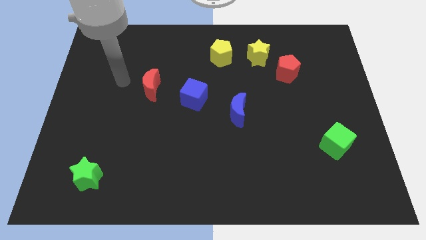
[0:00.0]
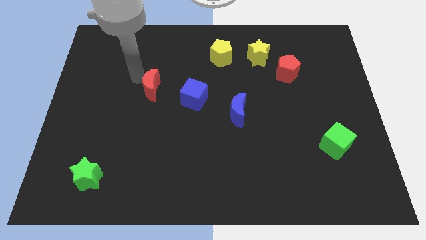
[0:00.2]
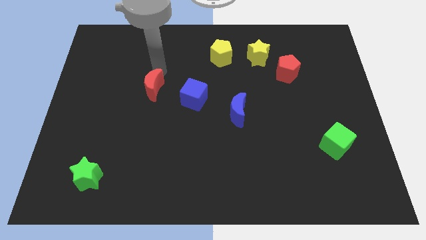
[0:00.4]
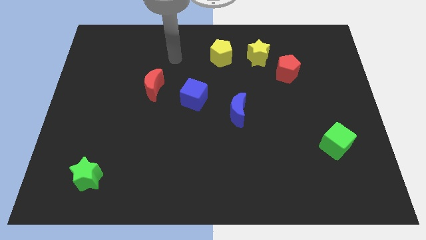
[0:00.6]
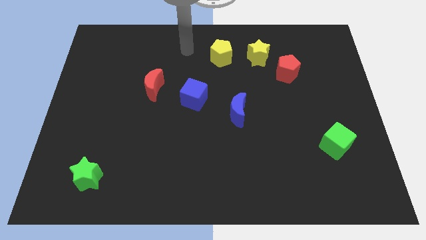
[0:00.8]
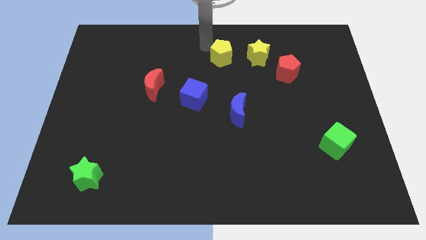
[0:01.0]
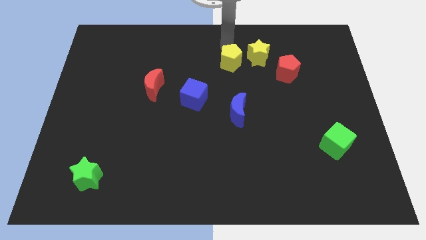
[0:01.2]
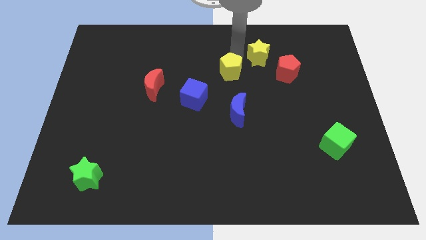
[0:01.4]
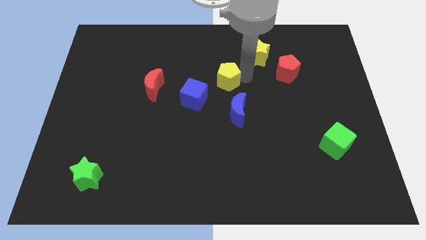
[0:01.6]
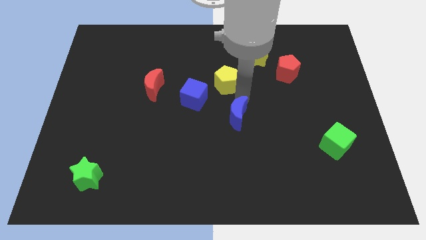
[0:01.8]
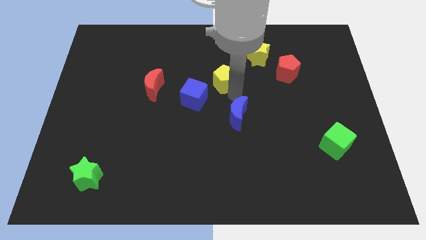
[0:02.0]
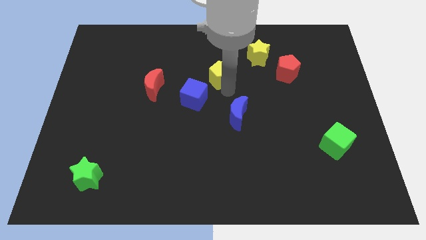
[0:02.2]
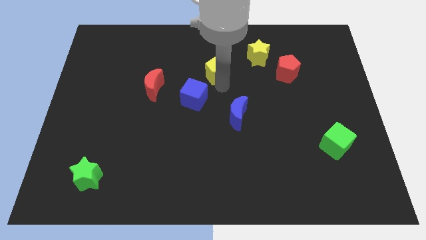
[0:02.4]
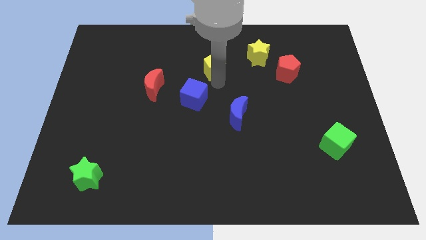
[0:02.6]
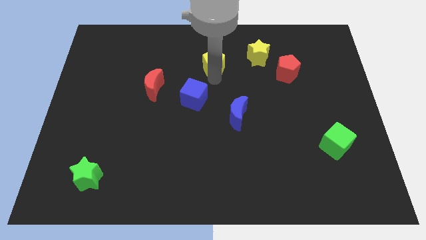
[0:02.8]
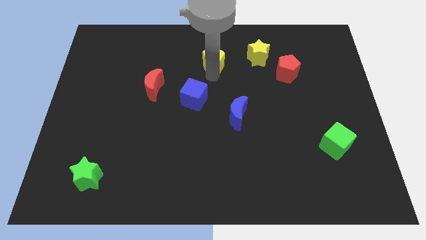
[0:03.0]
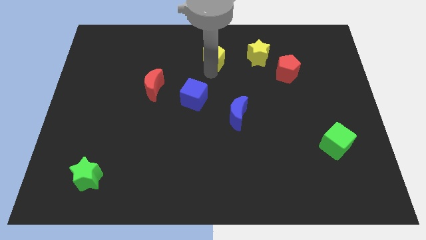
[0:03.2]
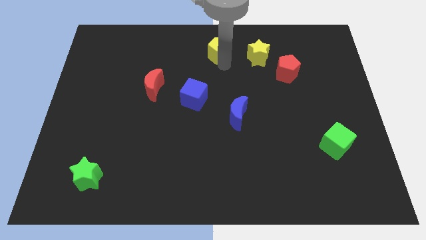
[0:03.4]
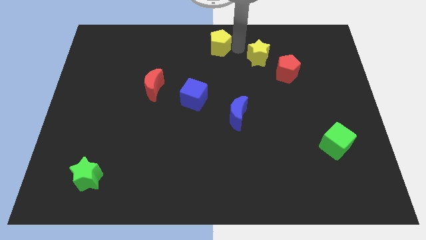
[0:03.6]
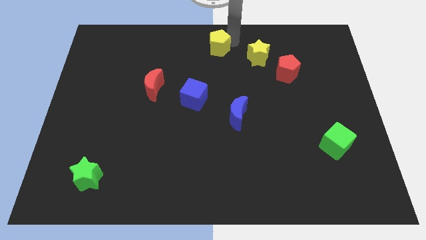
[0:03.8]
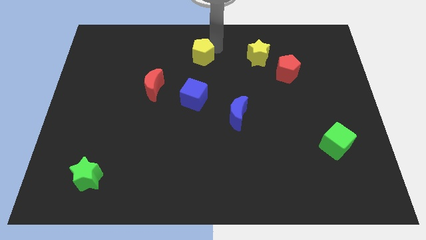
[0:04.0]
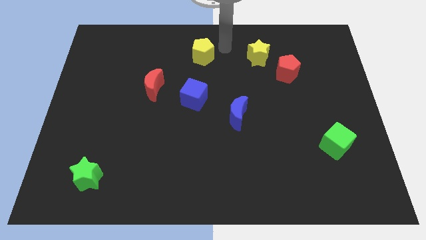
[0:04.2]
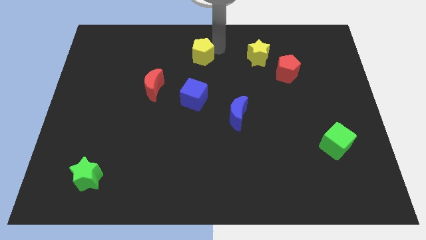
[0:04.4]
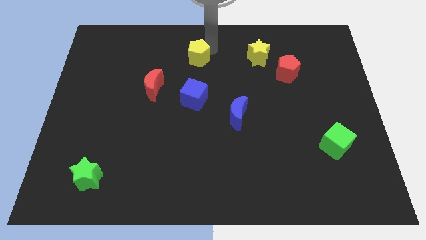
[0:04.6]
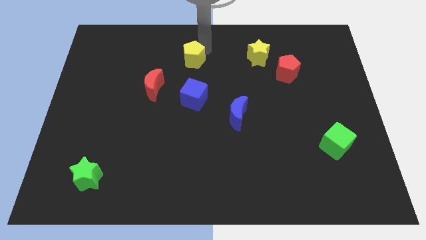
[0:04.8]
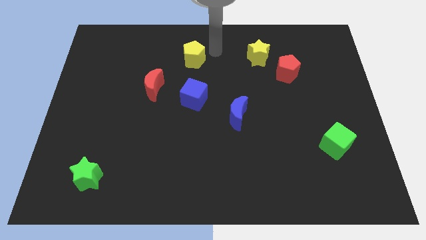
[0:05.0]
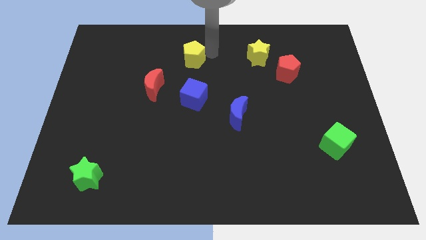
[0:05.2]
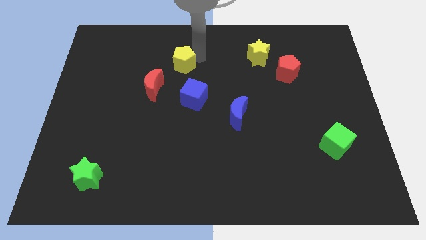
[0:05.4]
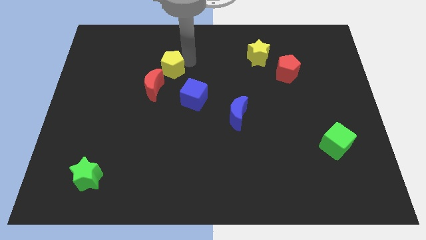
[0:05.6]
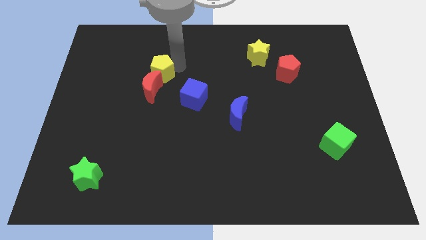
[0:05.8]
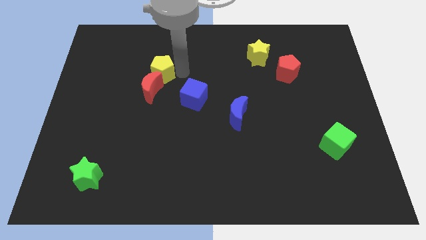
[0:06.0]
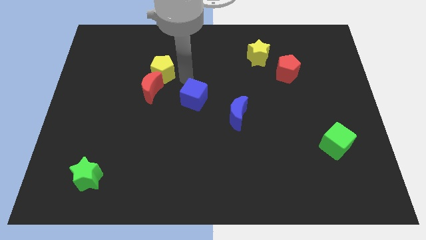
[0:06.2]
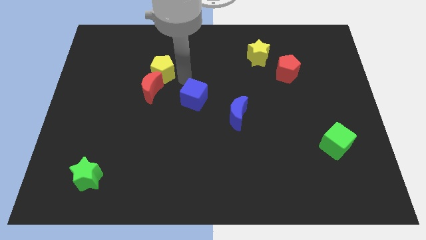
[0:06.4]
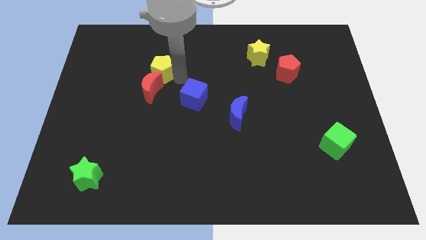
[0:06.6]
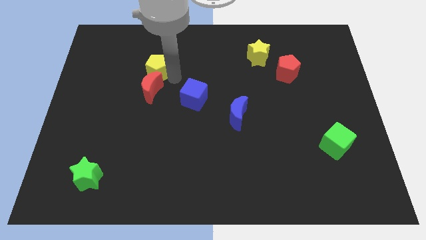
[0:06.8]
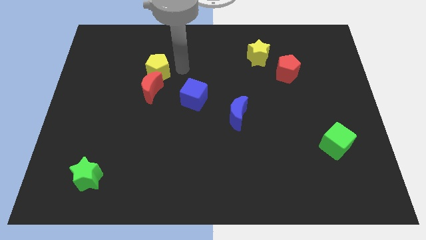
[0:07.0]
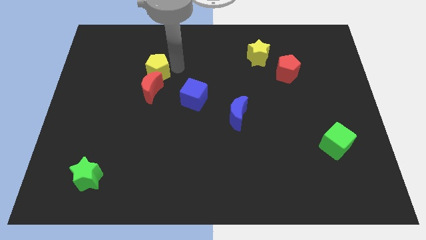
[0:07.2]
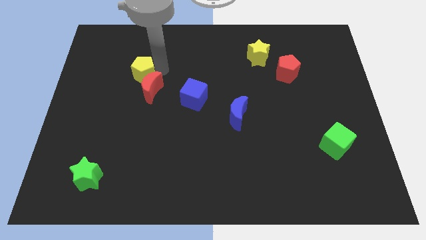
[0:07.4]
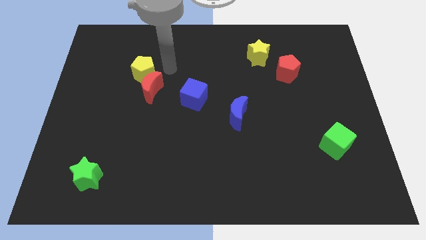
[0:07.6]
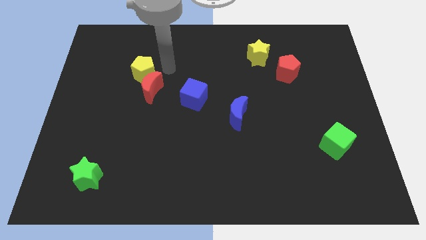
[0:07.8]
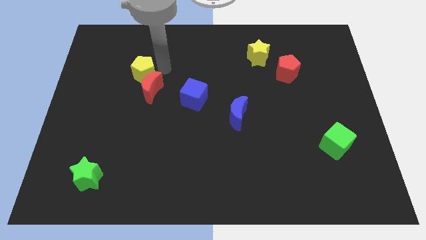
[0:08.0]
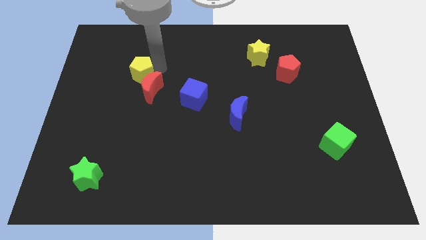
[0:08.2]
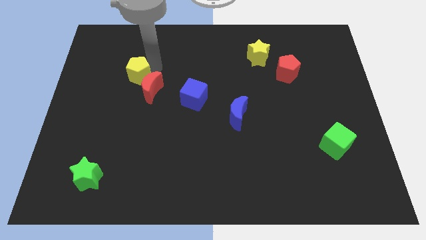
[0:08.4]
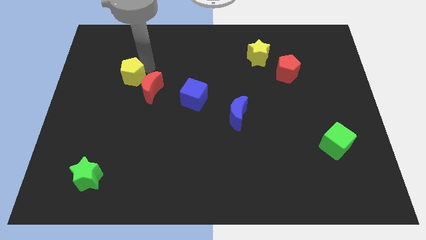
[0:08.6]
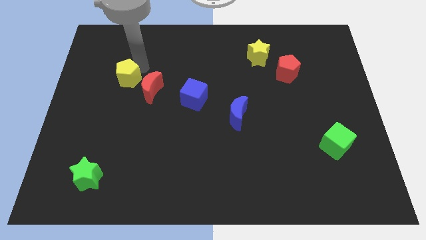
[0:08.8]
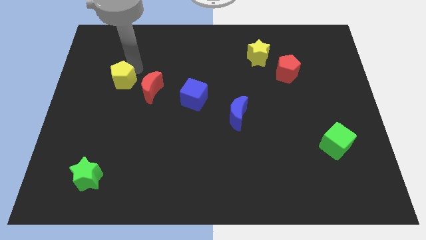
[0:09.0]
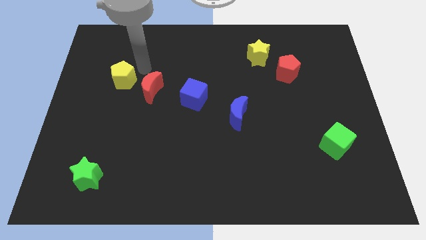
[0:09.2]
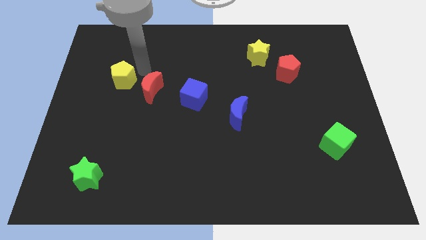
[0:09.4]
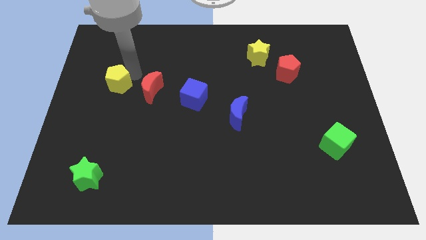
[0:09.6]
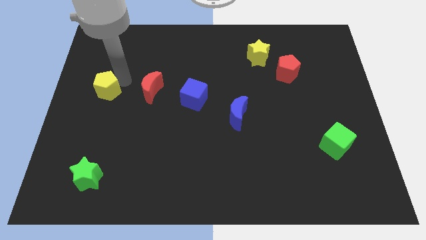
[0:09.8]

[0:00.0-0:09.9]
move the yellow pentagon to the center left
